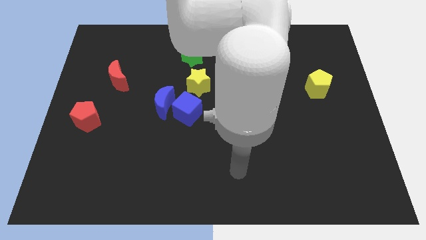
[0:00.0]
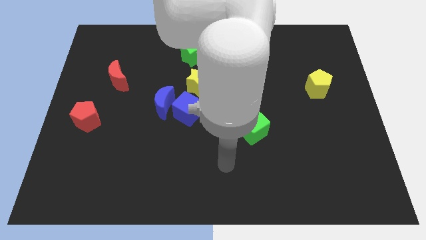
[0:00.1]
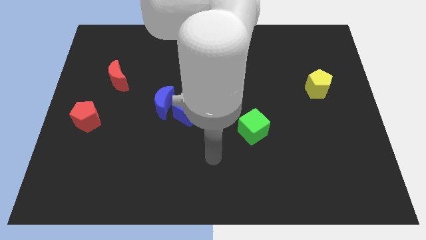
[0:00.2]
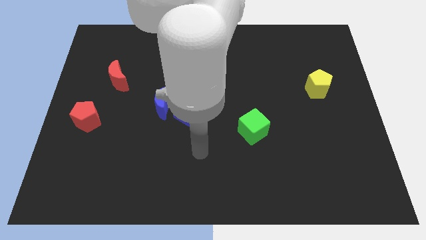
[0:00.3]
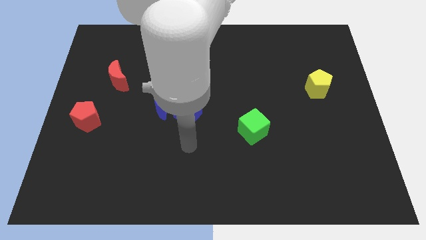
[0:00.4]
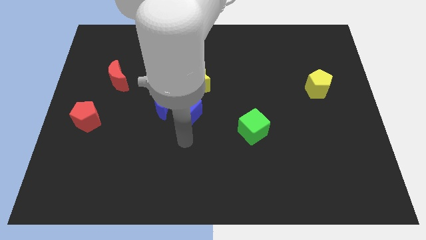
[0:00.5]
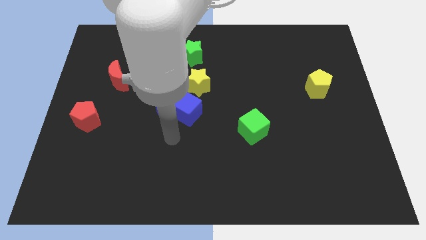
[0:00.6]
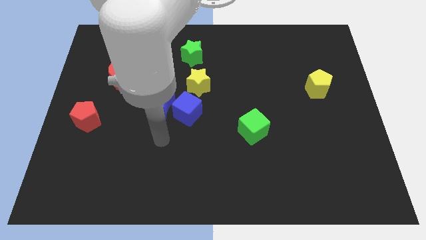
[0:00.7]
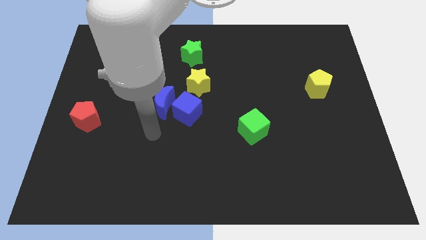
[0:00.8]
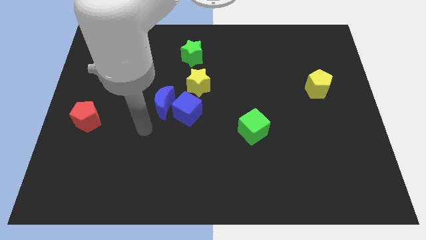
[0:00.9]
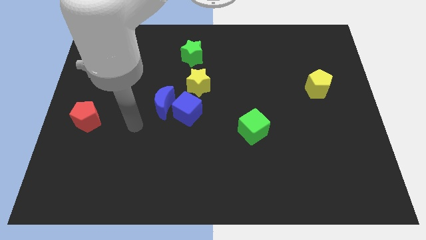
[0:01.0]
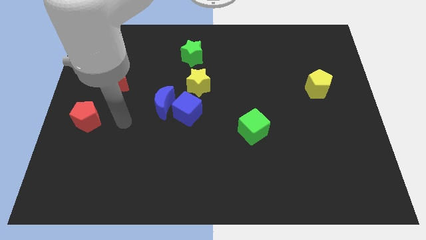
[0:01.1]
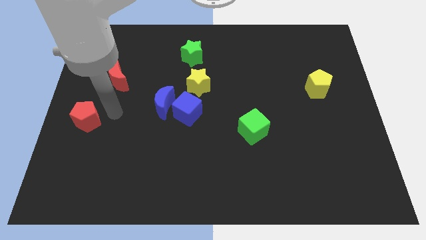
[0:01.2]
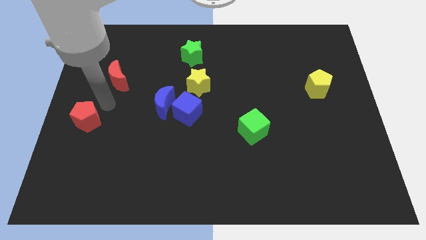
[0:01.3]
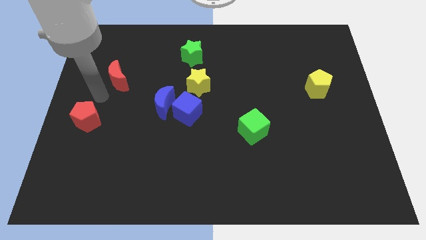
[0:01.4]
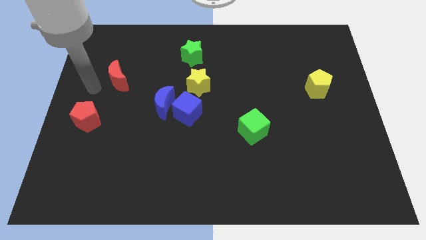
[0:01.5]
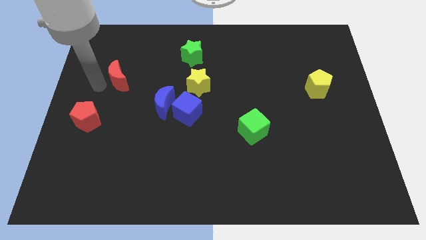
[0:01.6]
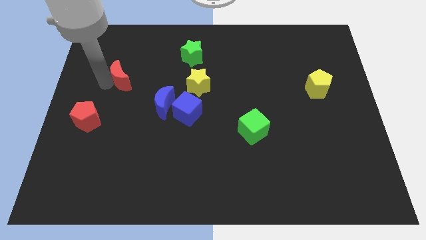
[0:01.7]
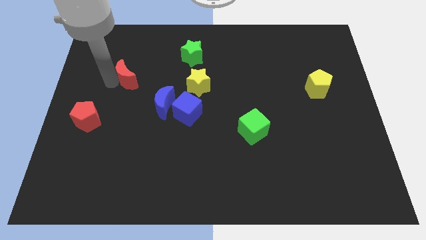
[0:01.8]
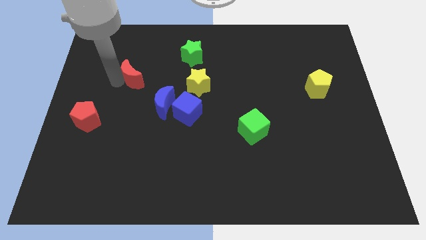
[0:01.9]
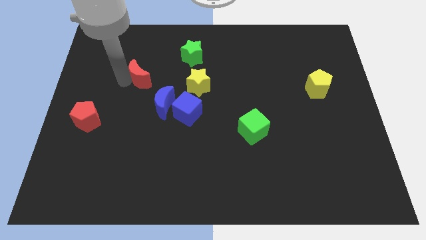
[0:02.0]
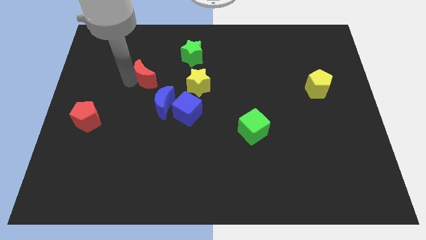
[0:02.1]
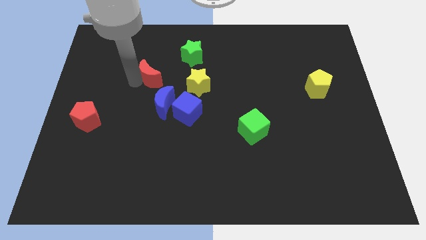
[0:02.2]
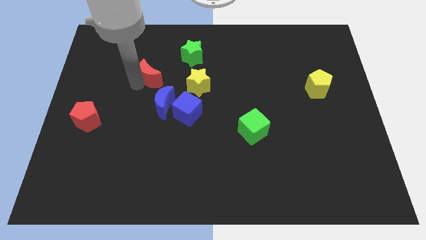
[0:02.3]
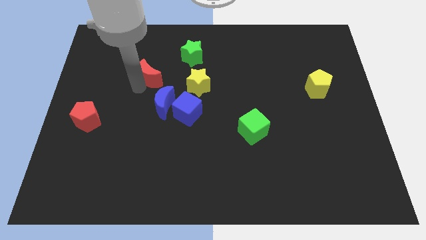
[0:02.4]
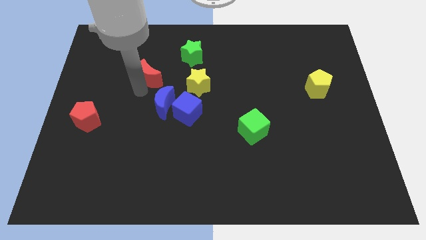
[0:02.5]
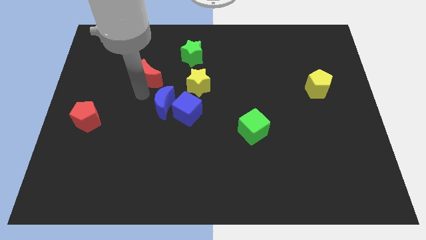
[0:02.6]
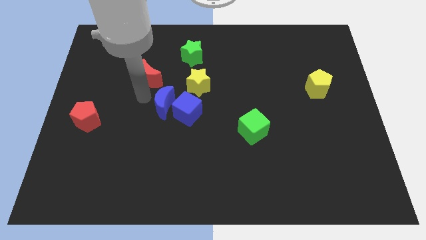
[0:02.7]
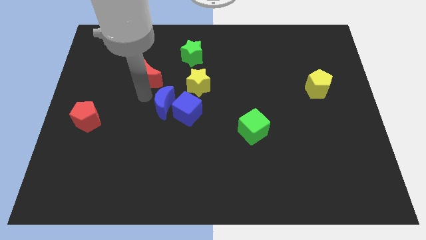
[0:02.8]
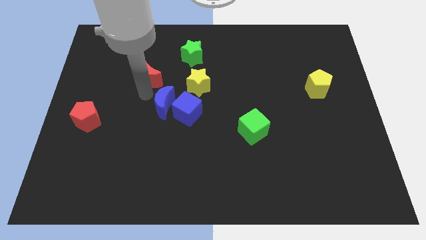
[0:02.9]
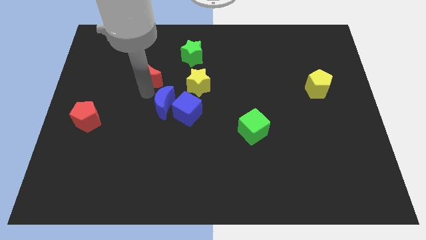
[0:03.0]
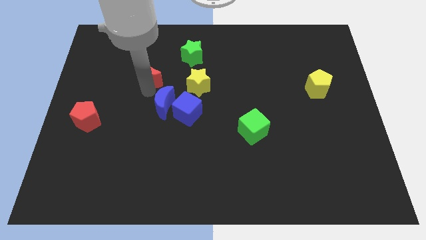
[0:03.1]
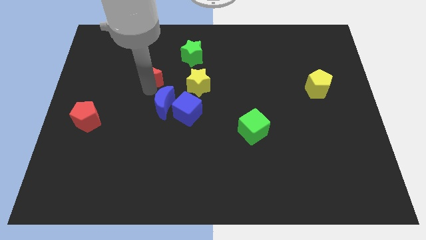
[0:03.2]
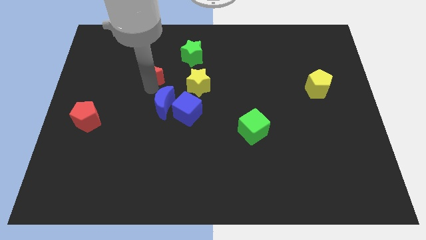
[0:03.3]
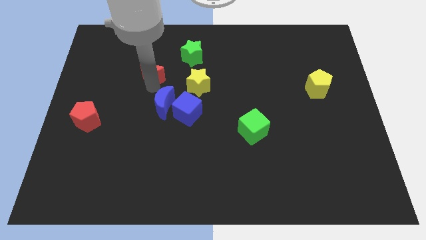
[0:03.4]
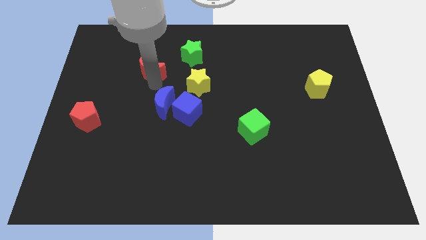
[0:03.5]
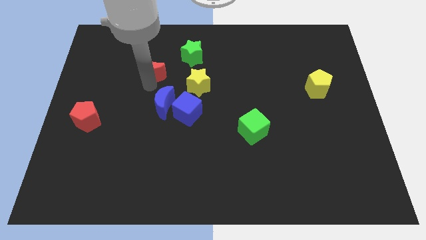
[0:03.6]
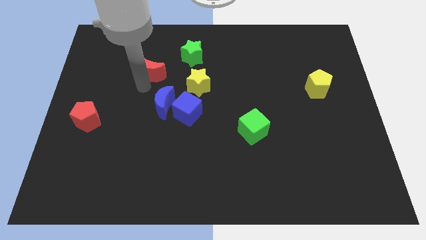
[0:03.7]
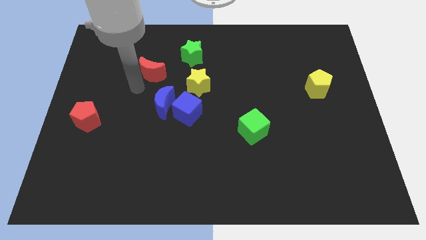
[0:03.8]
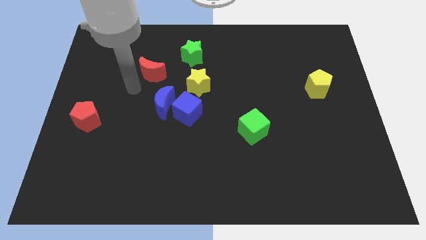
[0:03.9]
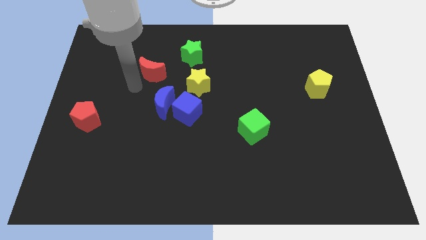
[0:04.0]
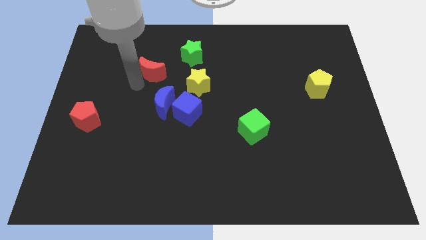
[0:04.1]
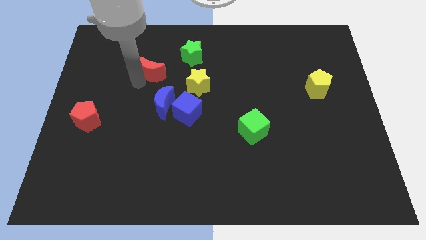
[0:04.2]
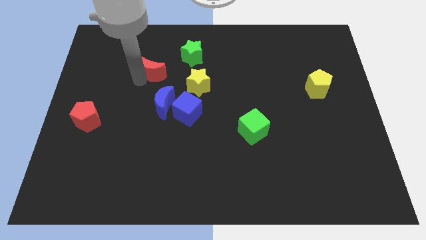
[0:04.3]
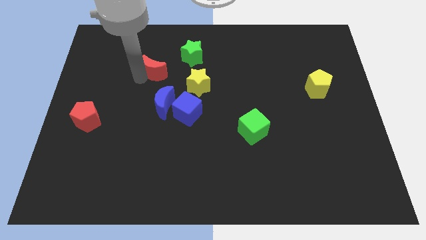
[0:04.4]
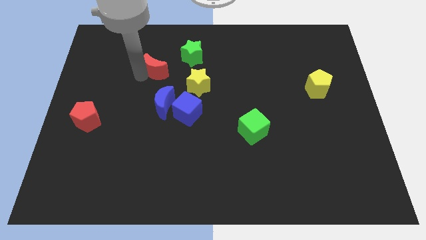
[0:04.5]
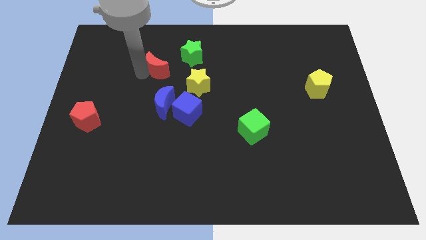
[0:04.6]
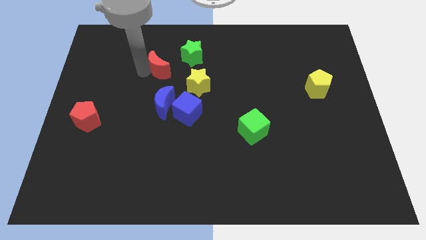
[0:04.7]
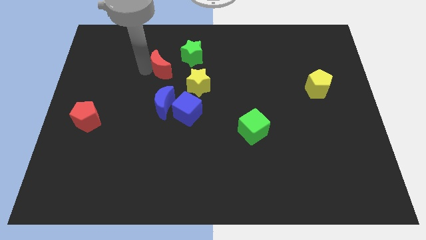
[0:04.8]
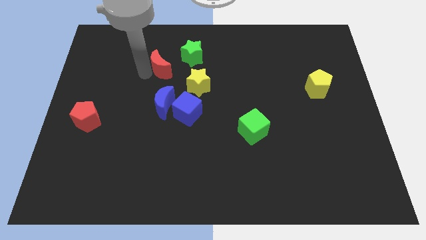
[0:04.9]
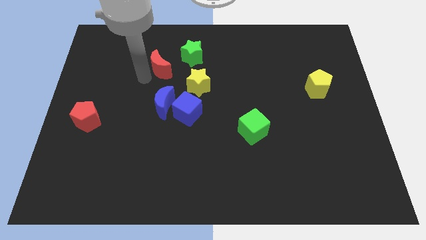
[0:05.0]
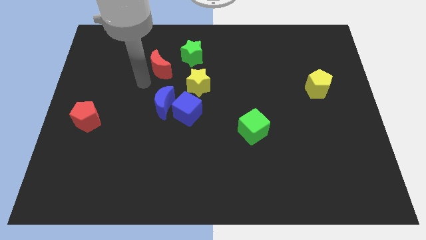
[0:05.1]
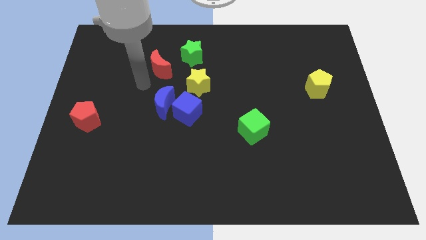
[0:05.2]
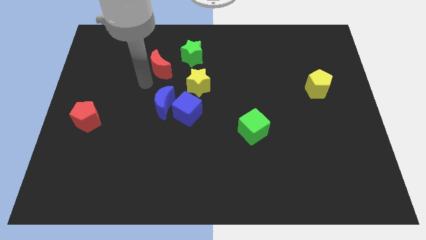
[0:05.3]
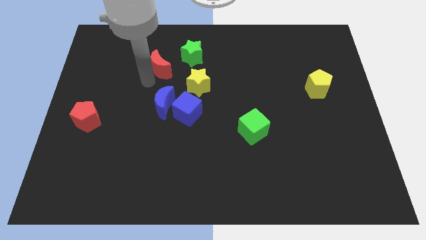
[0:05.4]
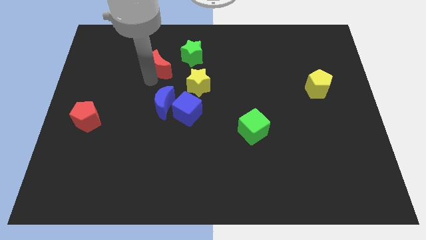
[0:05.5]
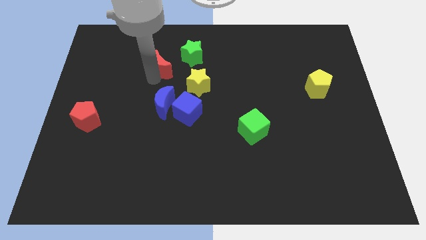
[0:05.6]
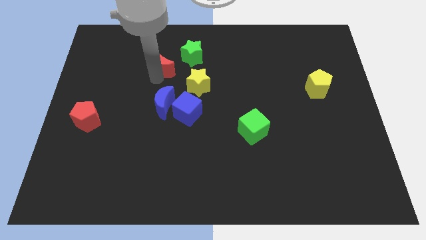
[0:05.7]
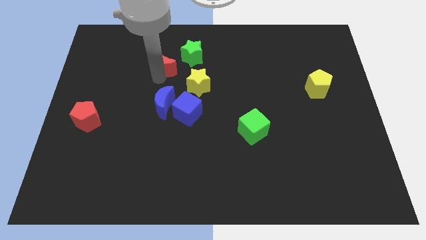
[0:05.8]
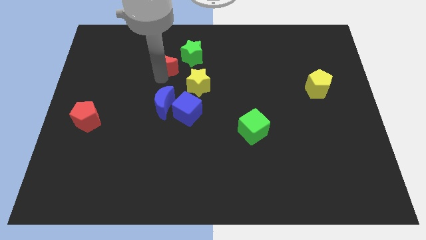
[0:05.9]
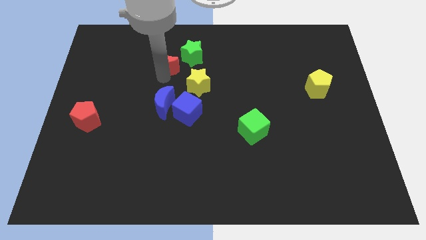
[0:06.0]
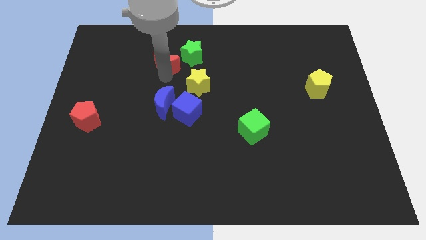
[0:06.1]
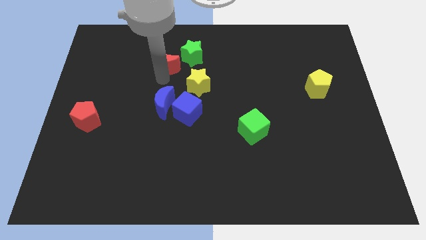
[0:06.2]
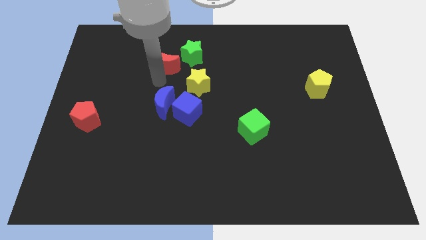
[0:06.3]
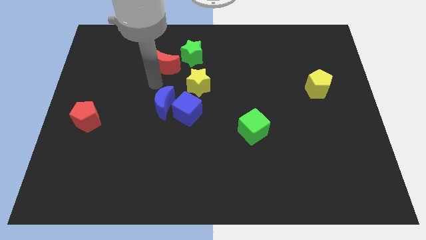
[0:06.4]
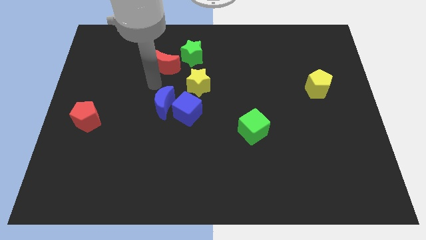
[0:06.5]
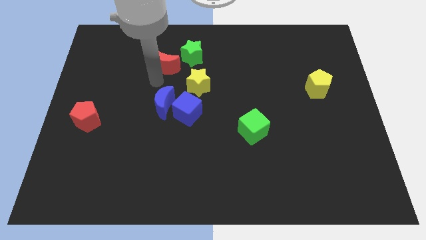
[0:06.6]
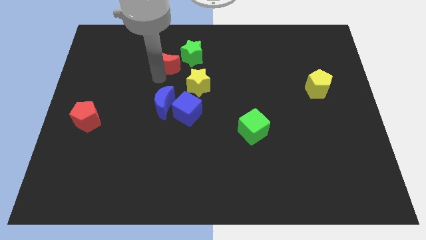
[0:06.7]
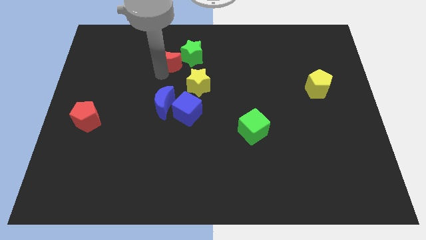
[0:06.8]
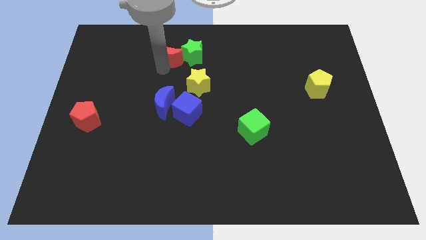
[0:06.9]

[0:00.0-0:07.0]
move the red moon to the green star
